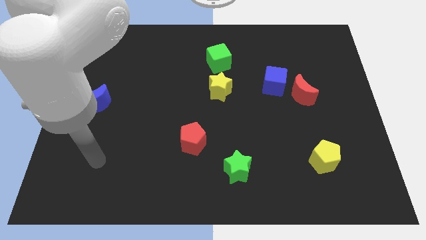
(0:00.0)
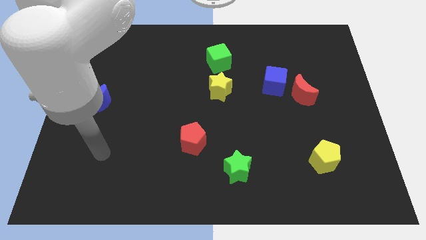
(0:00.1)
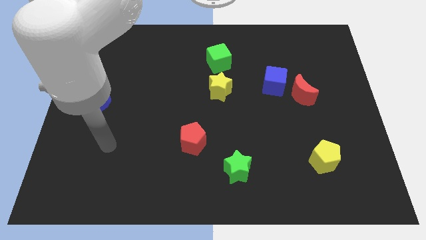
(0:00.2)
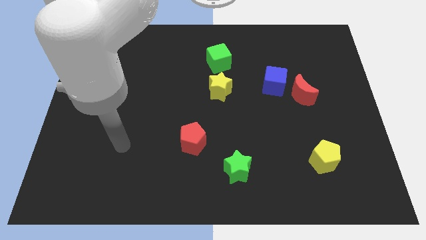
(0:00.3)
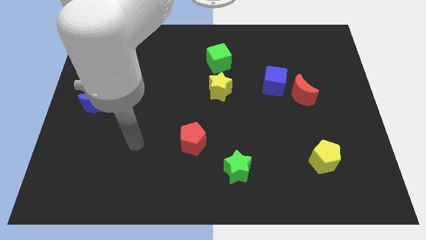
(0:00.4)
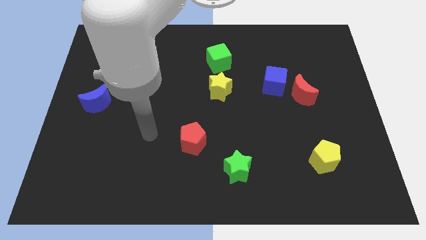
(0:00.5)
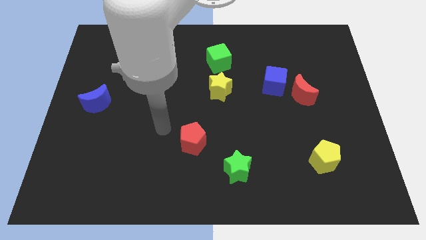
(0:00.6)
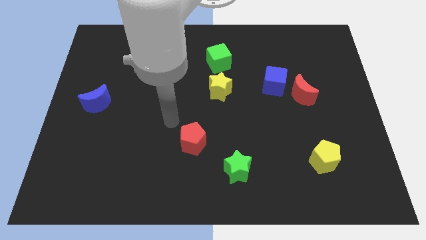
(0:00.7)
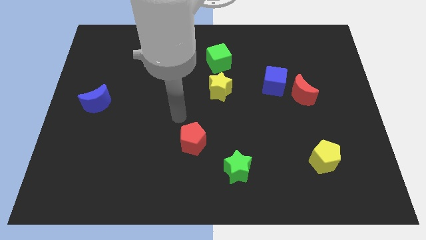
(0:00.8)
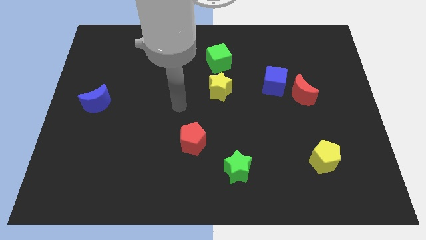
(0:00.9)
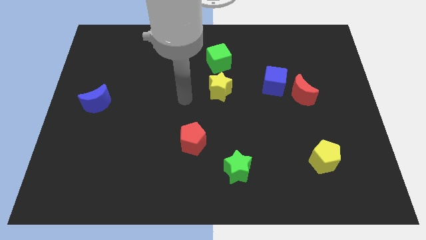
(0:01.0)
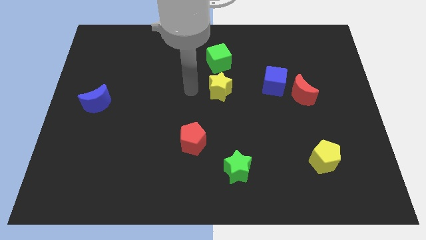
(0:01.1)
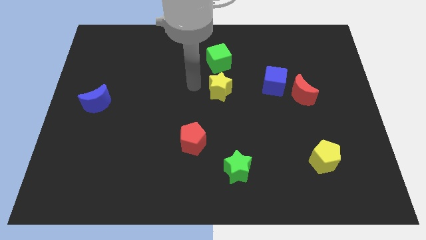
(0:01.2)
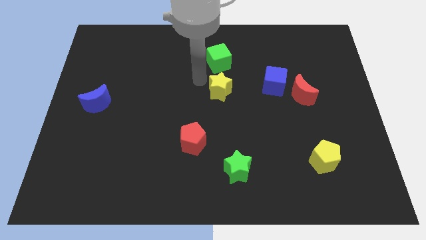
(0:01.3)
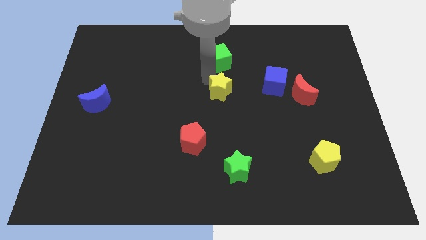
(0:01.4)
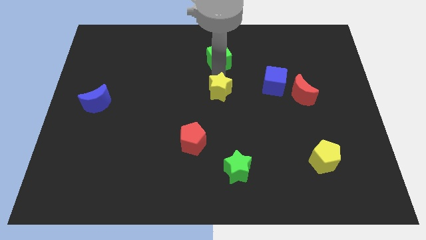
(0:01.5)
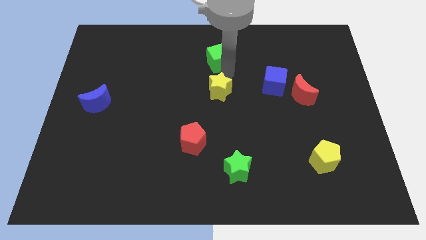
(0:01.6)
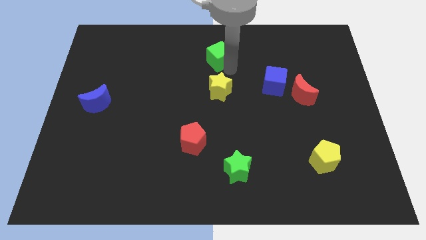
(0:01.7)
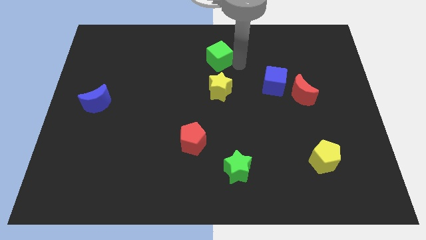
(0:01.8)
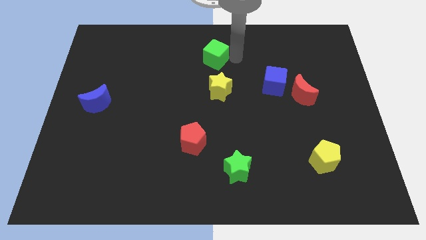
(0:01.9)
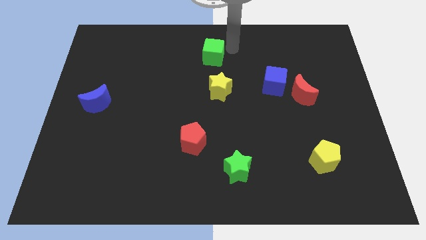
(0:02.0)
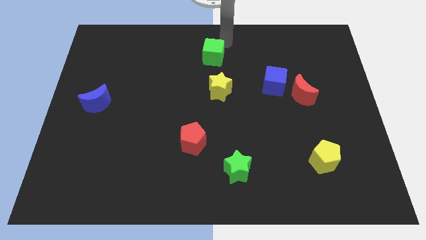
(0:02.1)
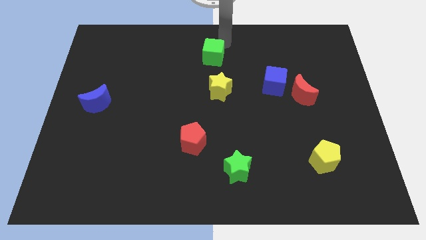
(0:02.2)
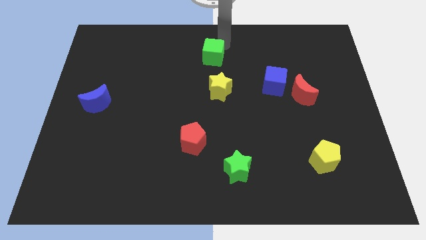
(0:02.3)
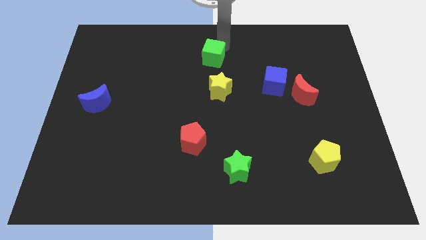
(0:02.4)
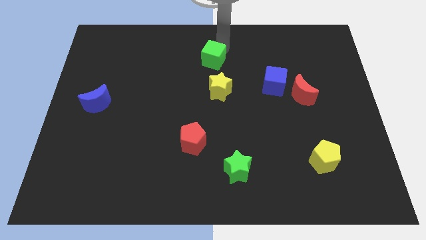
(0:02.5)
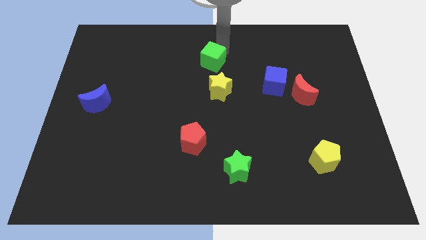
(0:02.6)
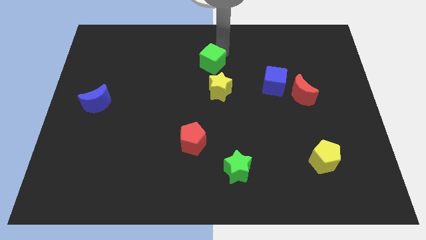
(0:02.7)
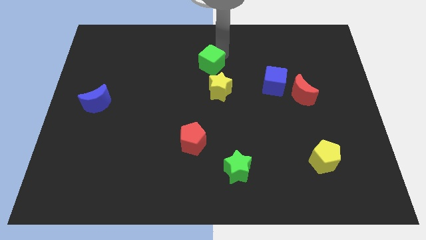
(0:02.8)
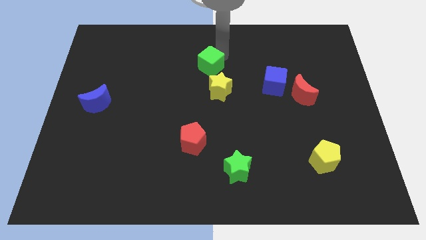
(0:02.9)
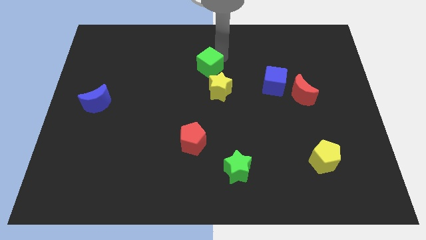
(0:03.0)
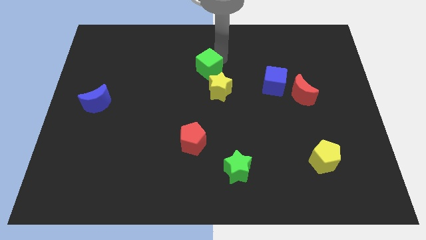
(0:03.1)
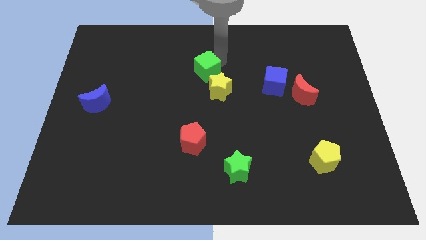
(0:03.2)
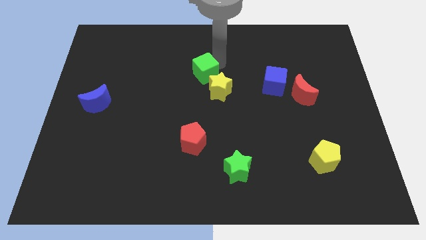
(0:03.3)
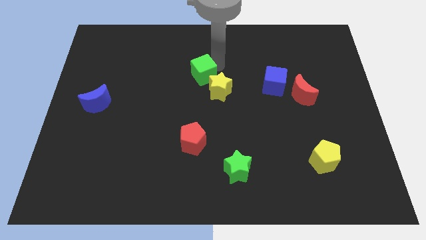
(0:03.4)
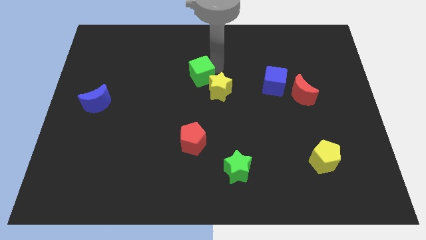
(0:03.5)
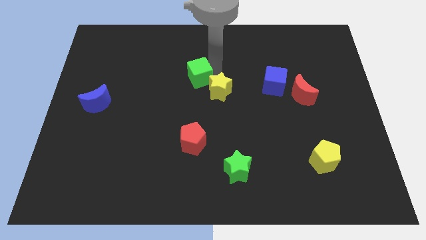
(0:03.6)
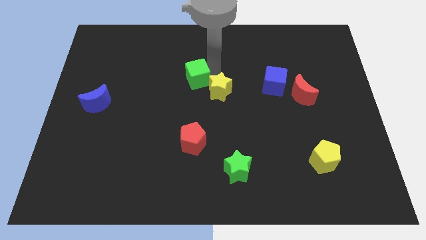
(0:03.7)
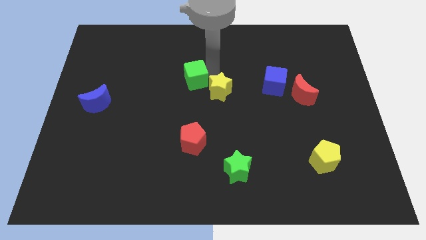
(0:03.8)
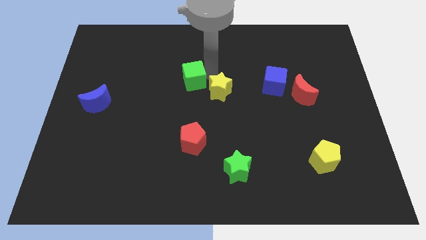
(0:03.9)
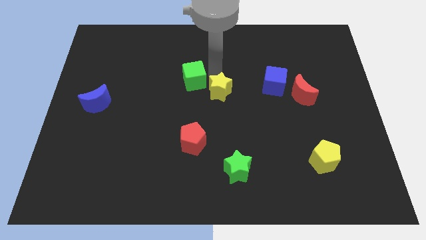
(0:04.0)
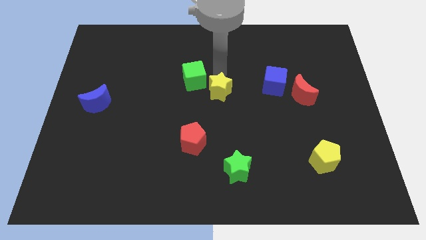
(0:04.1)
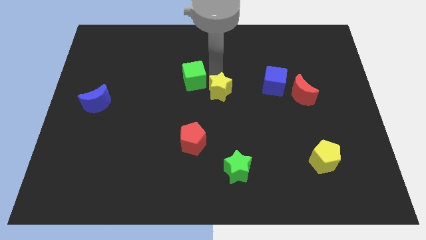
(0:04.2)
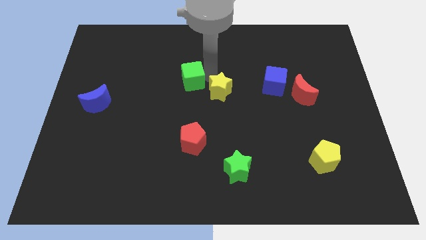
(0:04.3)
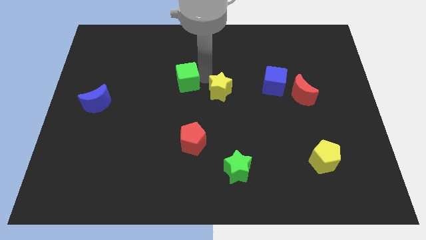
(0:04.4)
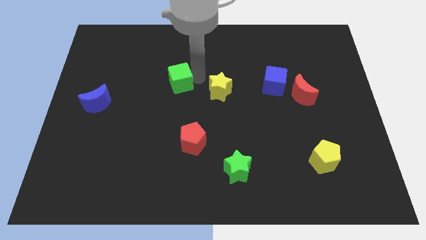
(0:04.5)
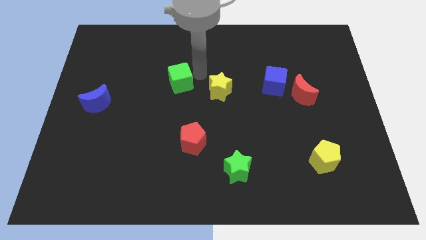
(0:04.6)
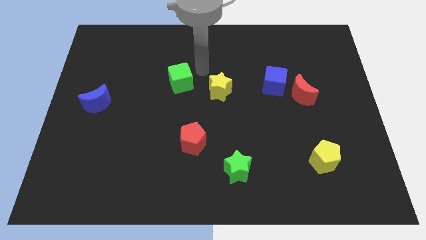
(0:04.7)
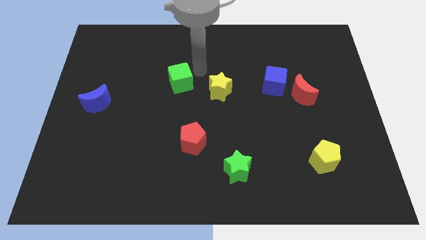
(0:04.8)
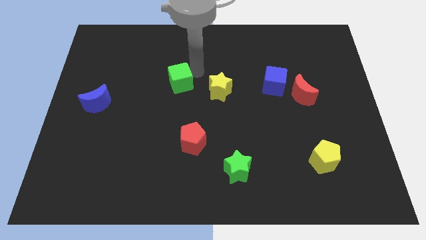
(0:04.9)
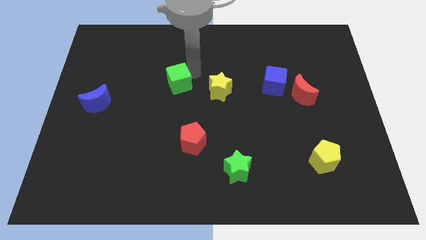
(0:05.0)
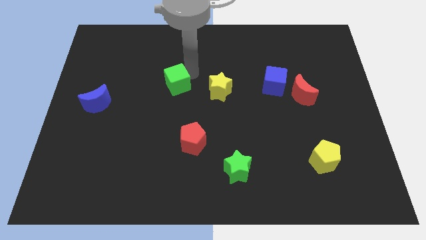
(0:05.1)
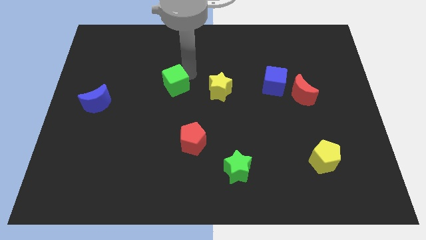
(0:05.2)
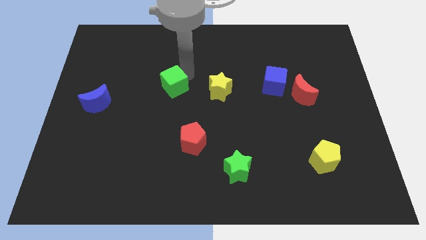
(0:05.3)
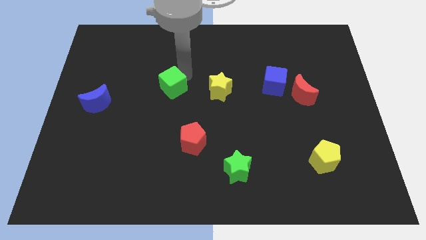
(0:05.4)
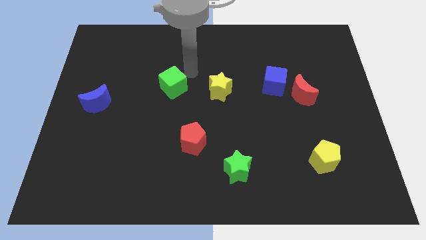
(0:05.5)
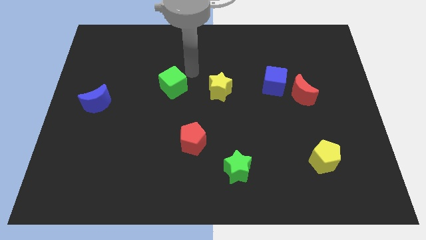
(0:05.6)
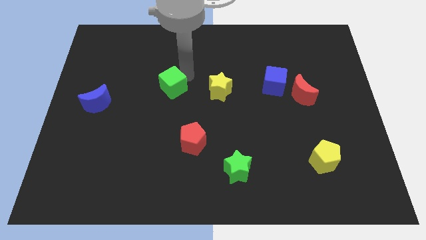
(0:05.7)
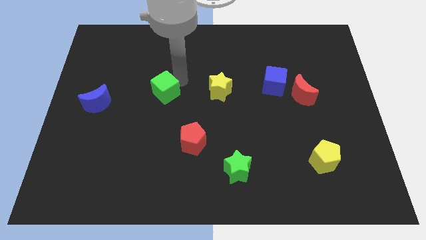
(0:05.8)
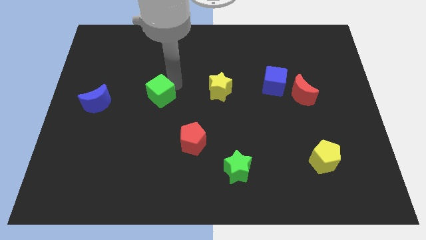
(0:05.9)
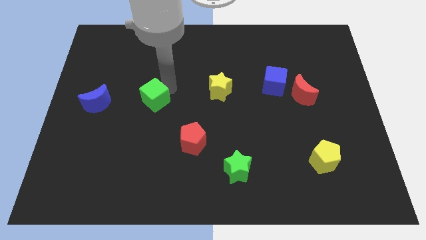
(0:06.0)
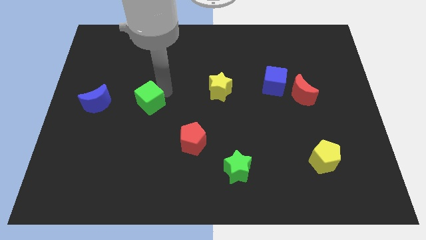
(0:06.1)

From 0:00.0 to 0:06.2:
move the green cube down and then left

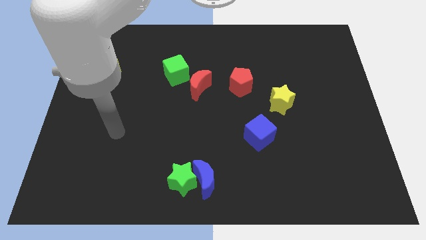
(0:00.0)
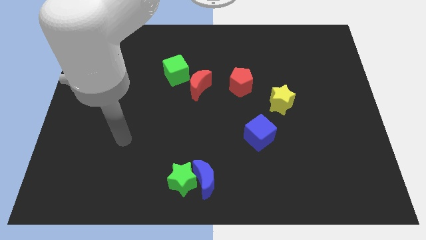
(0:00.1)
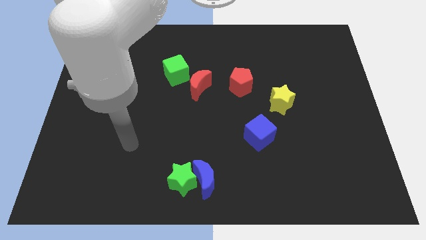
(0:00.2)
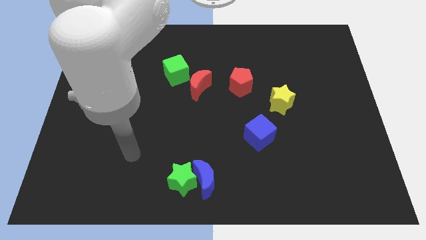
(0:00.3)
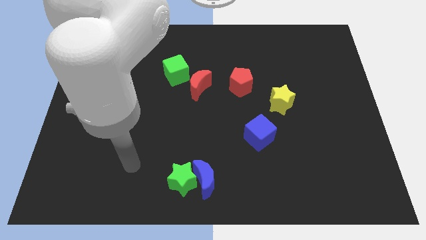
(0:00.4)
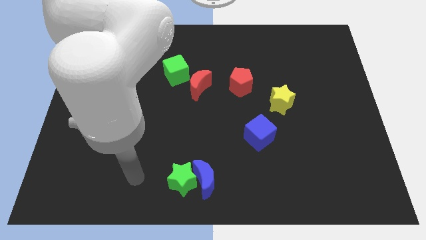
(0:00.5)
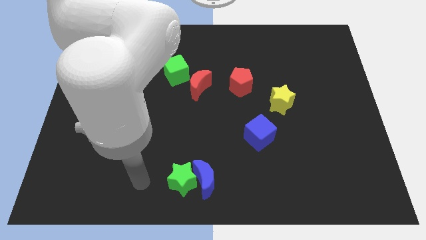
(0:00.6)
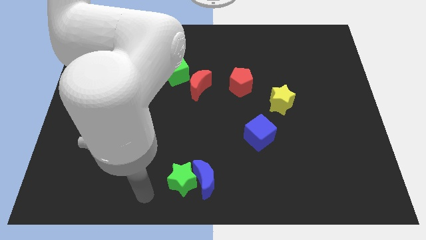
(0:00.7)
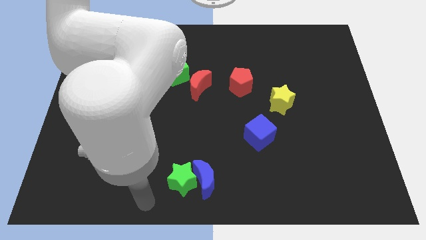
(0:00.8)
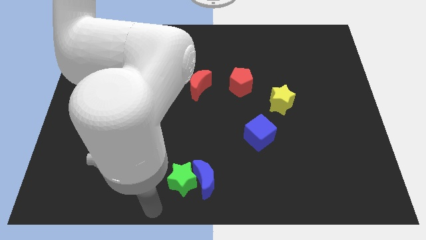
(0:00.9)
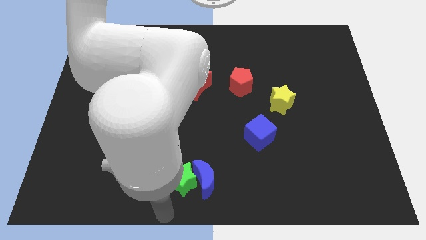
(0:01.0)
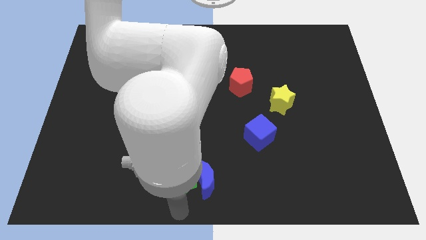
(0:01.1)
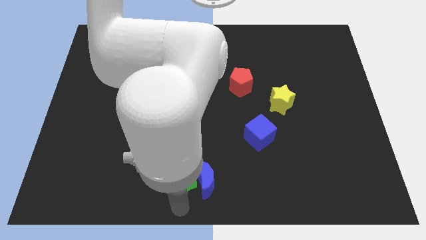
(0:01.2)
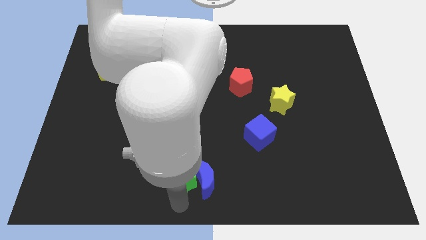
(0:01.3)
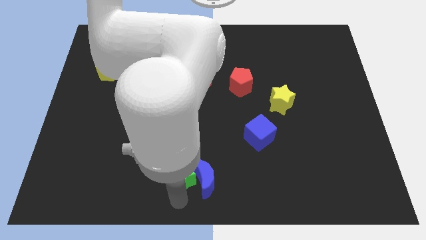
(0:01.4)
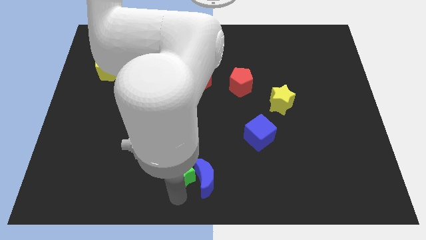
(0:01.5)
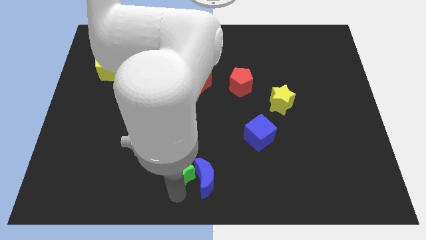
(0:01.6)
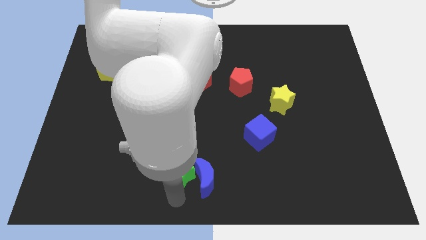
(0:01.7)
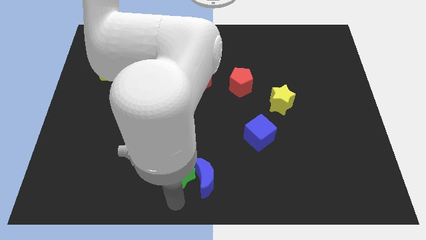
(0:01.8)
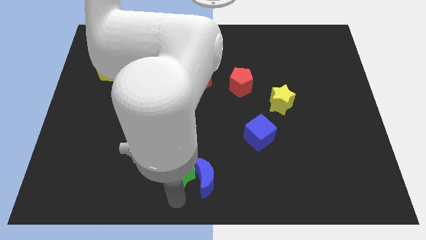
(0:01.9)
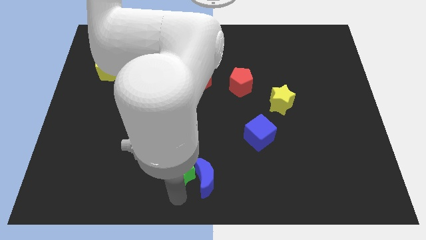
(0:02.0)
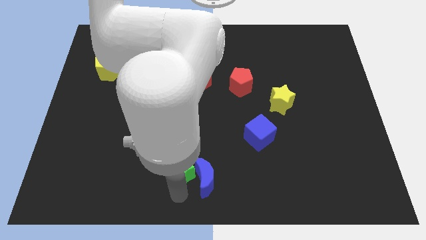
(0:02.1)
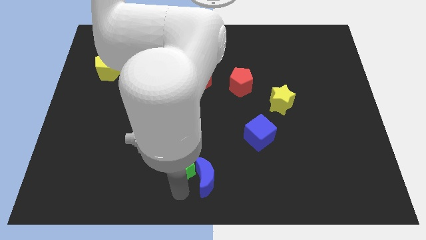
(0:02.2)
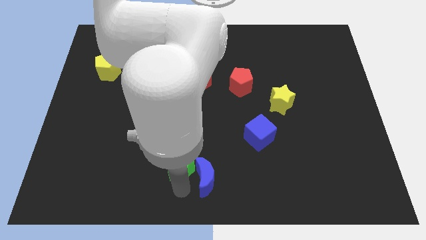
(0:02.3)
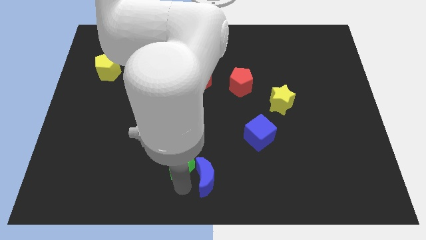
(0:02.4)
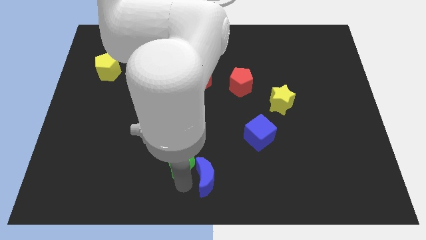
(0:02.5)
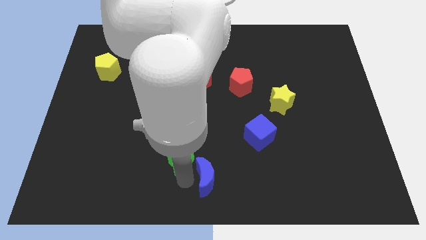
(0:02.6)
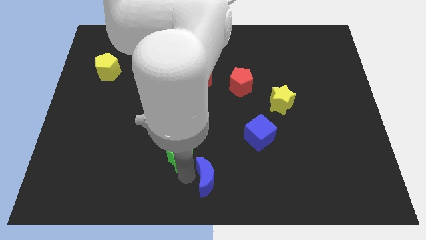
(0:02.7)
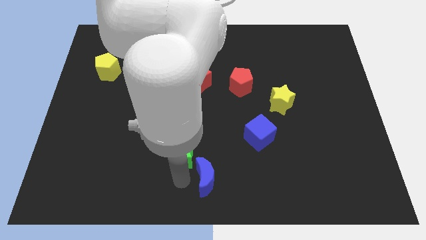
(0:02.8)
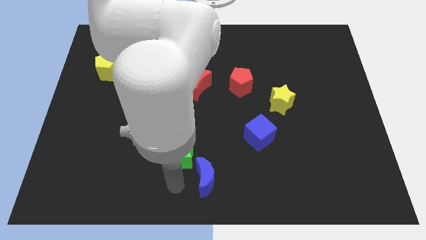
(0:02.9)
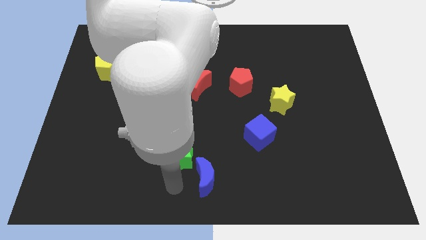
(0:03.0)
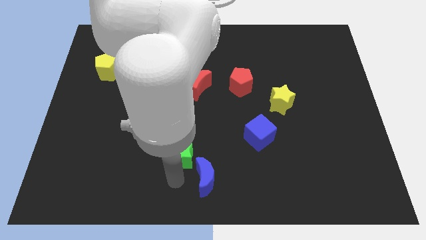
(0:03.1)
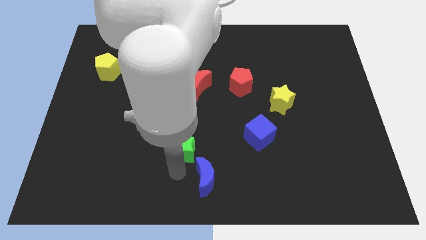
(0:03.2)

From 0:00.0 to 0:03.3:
push the green star a little bit upwards
